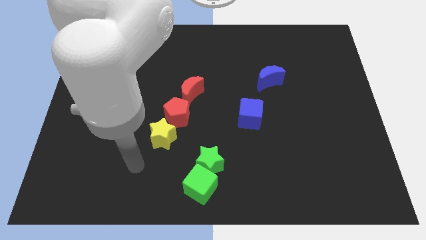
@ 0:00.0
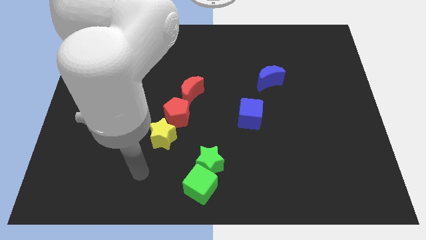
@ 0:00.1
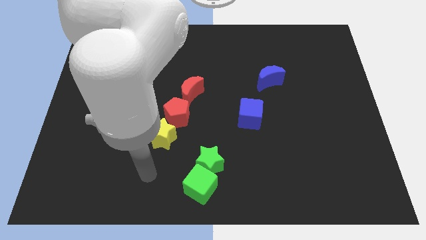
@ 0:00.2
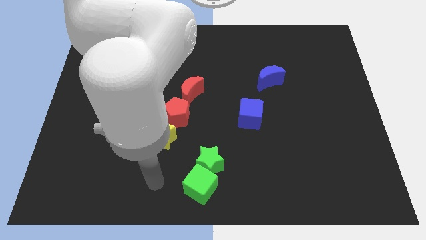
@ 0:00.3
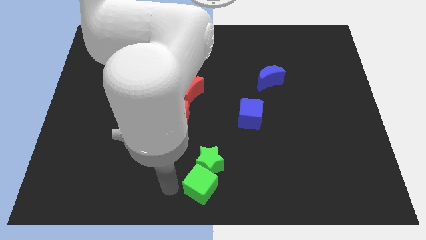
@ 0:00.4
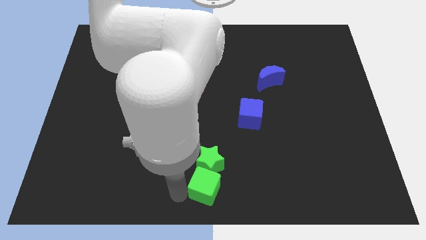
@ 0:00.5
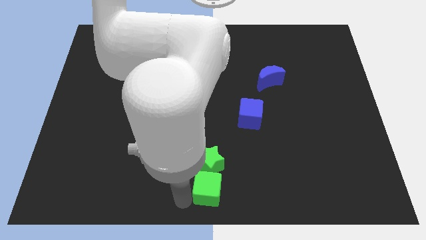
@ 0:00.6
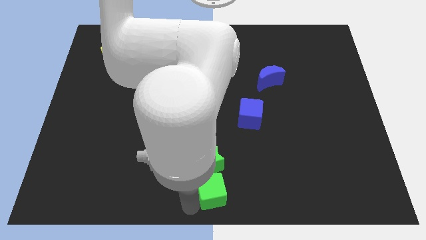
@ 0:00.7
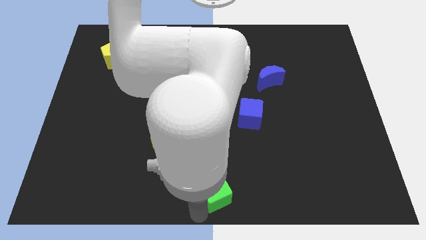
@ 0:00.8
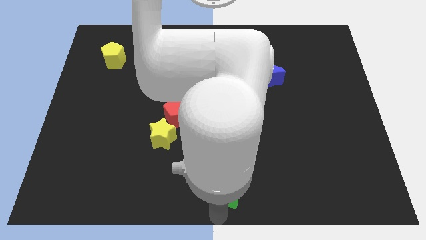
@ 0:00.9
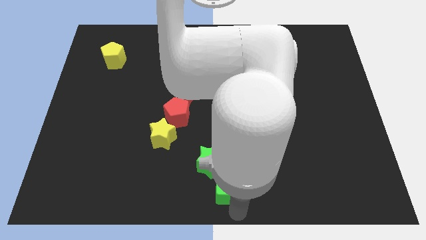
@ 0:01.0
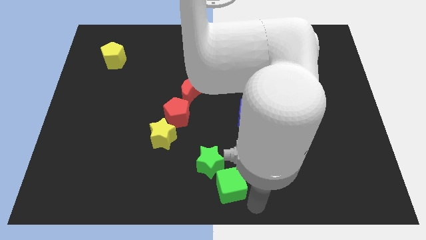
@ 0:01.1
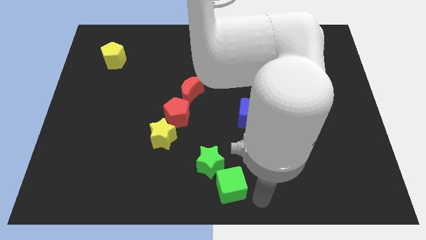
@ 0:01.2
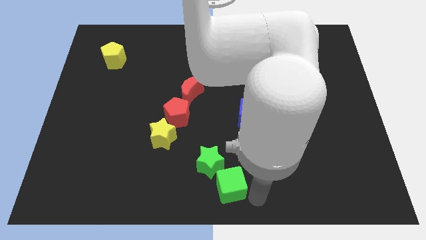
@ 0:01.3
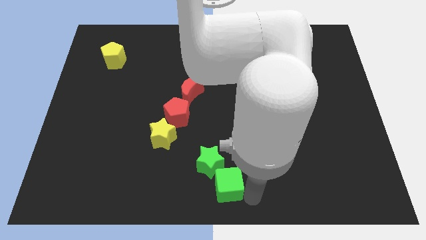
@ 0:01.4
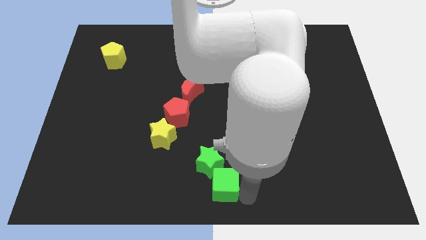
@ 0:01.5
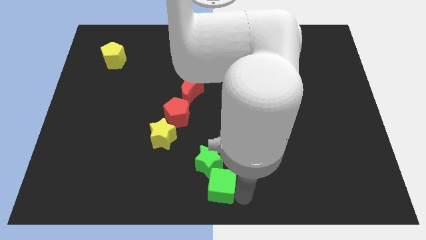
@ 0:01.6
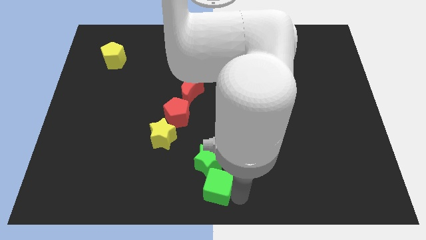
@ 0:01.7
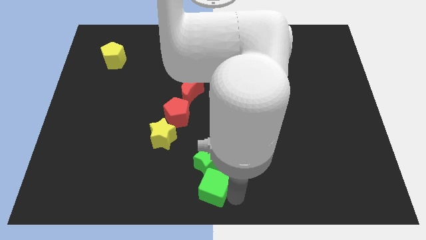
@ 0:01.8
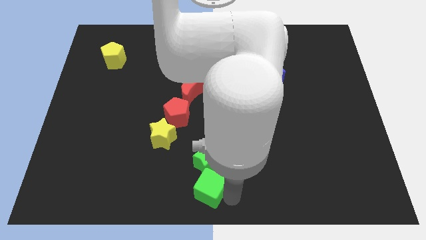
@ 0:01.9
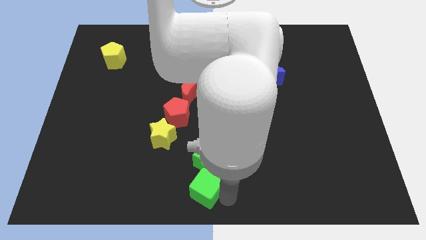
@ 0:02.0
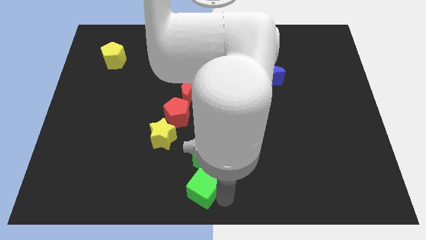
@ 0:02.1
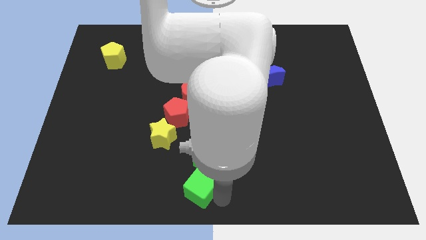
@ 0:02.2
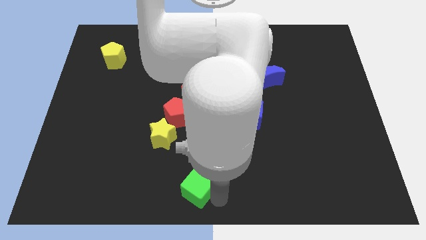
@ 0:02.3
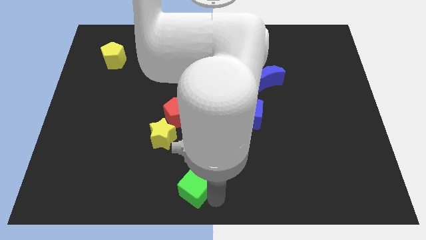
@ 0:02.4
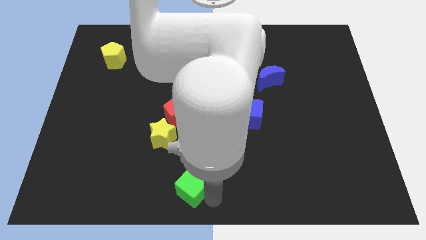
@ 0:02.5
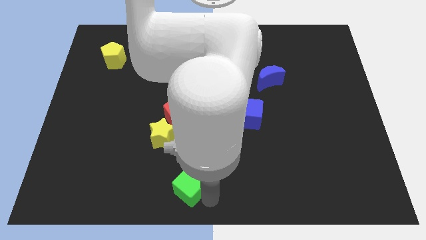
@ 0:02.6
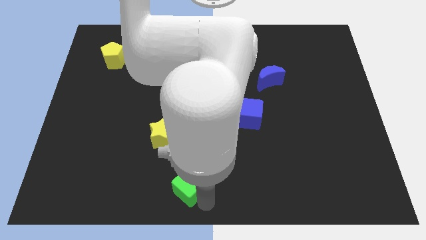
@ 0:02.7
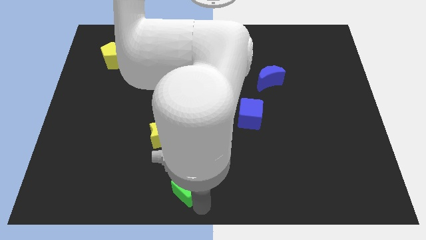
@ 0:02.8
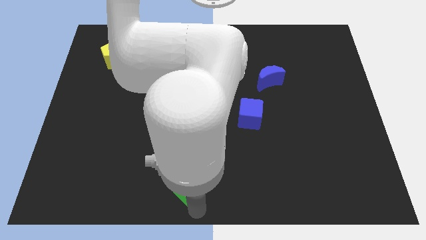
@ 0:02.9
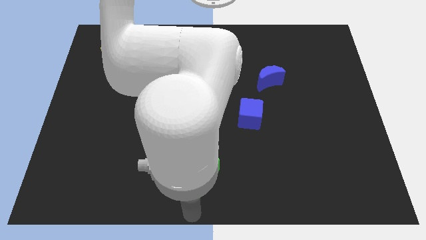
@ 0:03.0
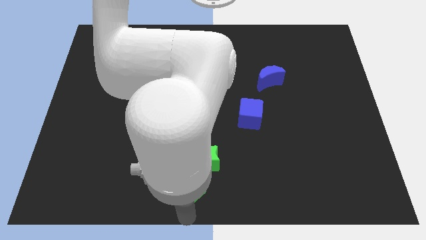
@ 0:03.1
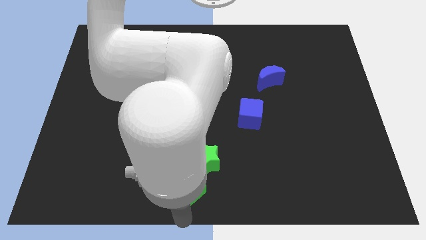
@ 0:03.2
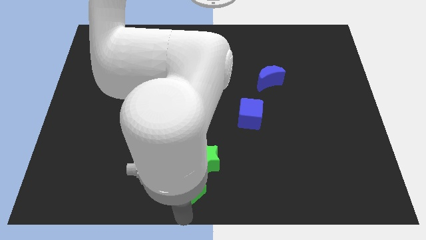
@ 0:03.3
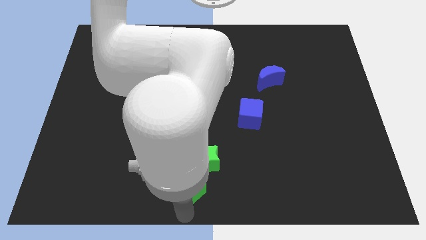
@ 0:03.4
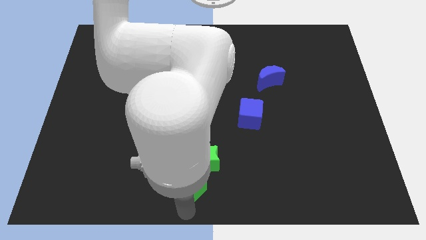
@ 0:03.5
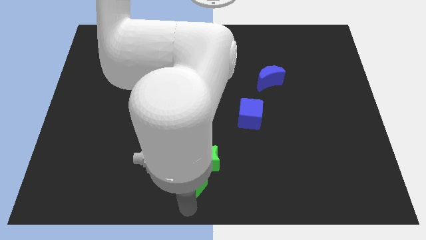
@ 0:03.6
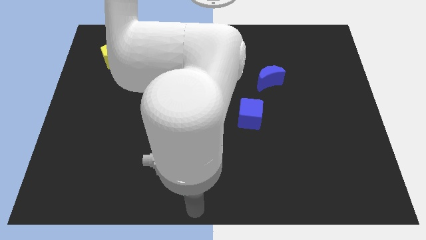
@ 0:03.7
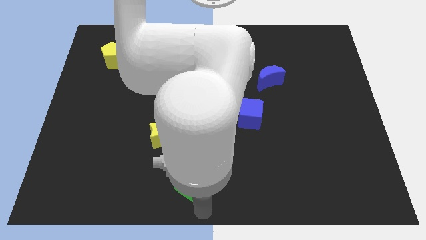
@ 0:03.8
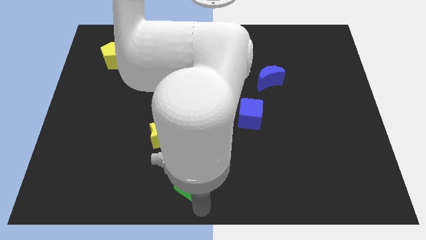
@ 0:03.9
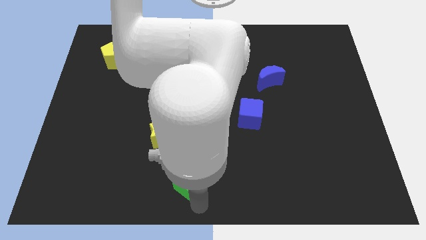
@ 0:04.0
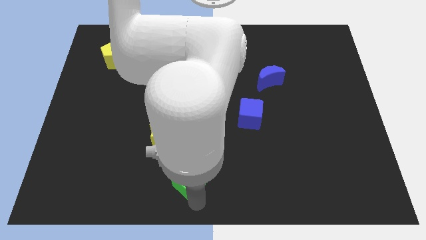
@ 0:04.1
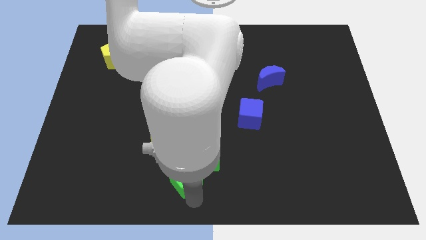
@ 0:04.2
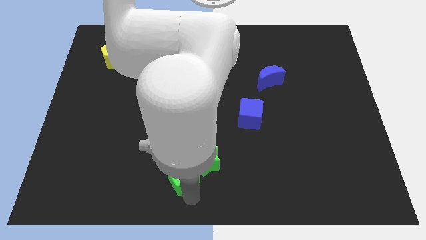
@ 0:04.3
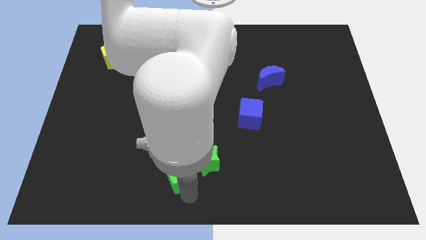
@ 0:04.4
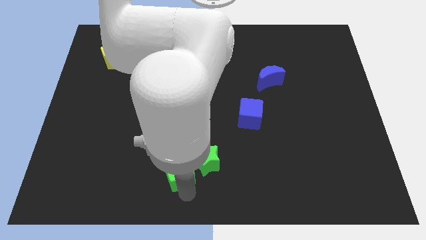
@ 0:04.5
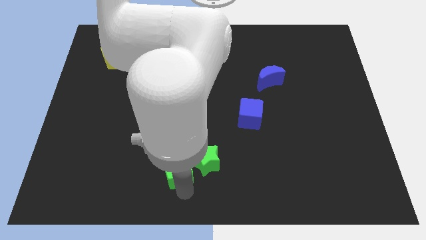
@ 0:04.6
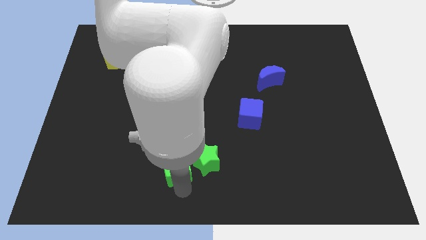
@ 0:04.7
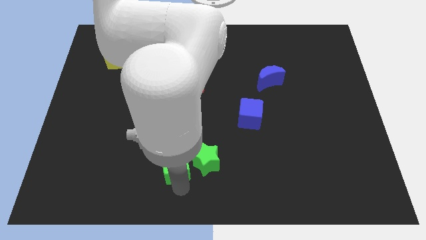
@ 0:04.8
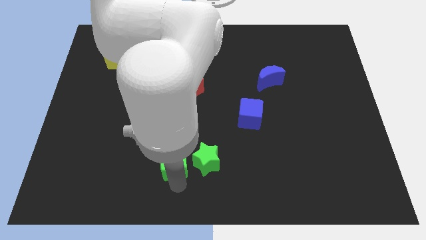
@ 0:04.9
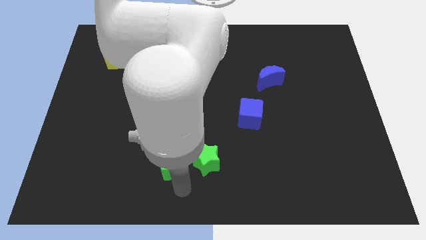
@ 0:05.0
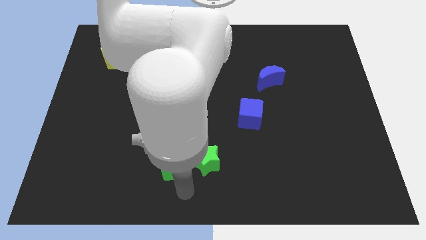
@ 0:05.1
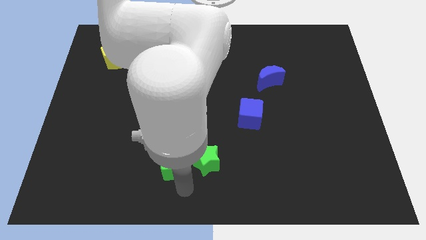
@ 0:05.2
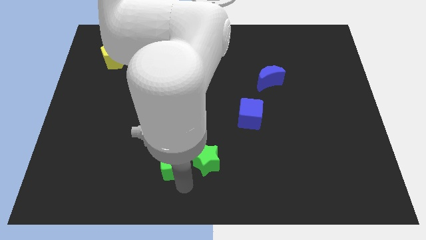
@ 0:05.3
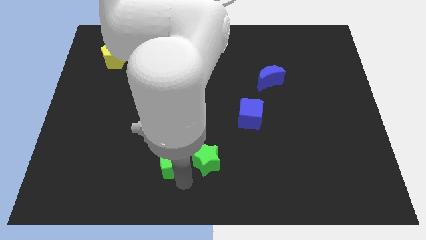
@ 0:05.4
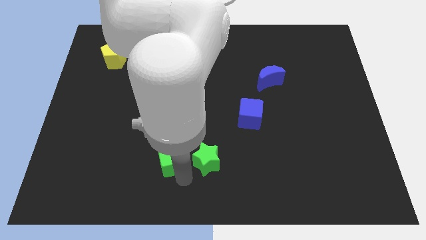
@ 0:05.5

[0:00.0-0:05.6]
put the green cube to the yellow star

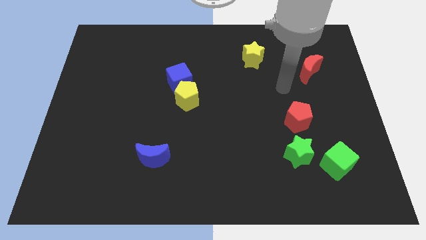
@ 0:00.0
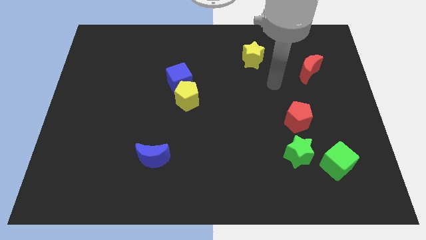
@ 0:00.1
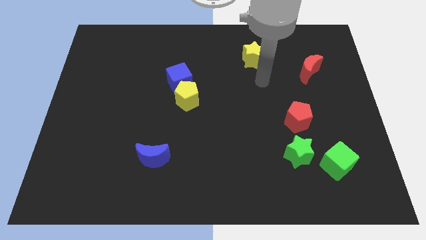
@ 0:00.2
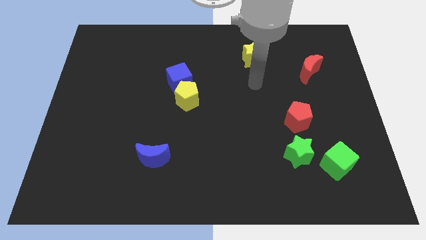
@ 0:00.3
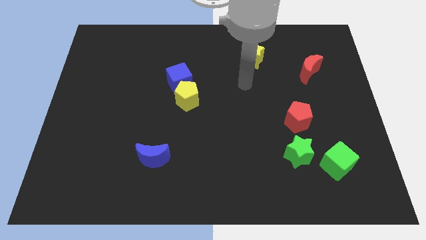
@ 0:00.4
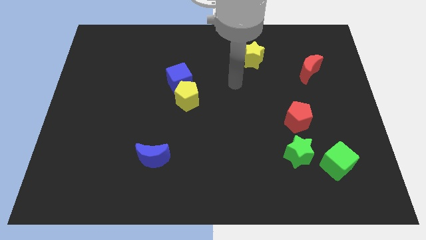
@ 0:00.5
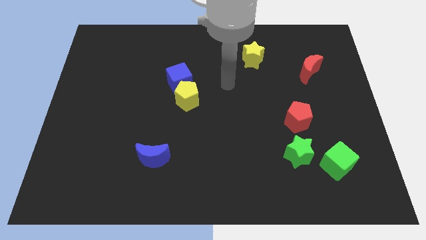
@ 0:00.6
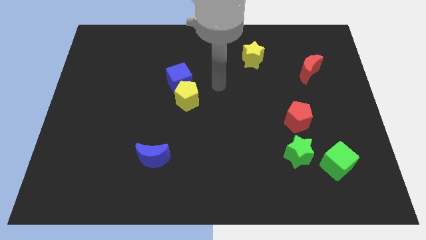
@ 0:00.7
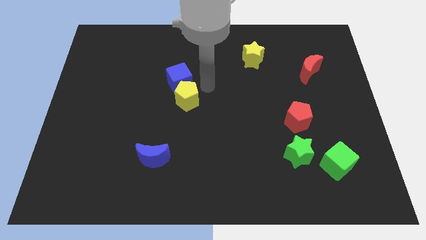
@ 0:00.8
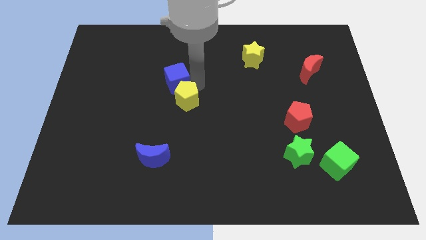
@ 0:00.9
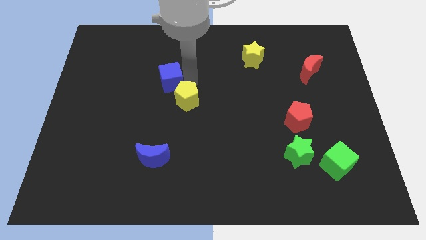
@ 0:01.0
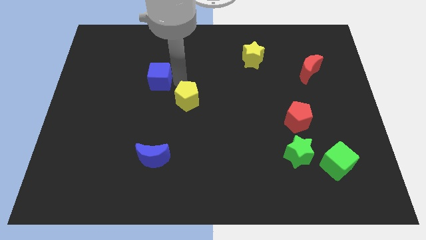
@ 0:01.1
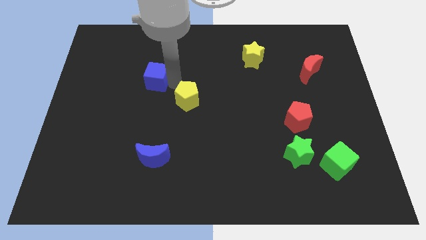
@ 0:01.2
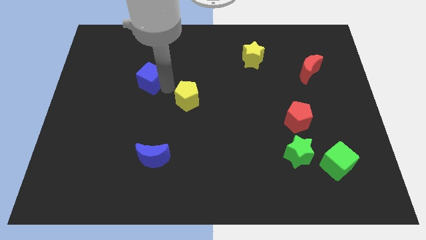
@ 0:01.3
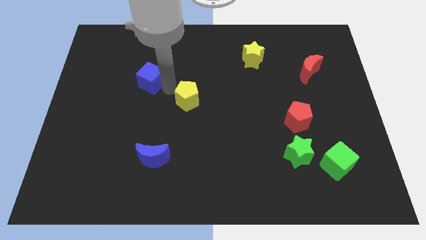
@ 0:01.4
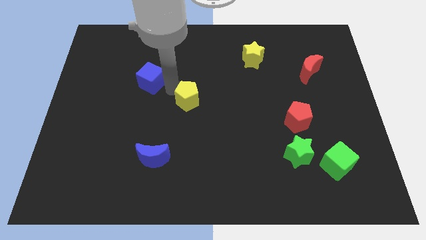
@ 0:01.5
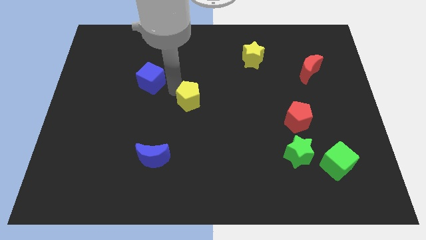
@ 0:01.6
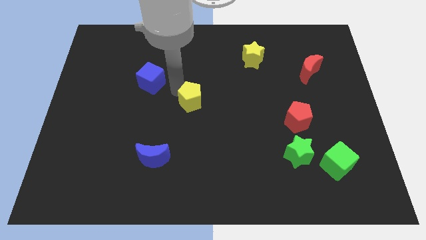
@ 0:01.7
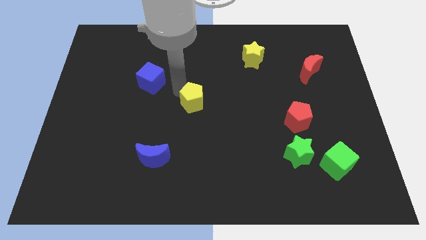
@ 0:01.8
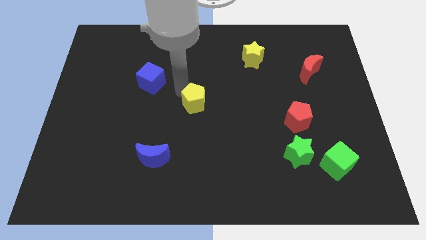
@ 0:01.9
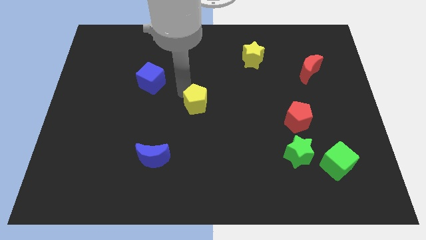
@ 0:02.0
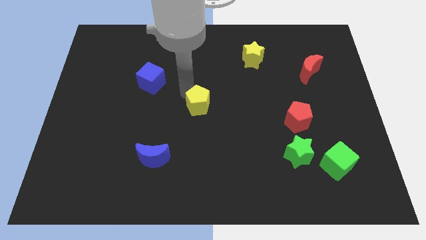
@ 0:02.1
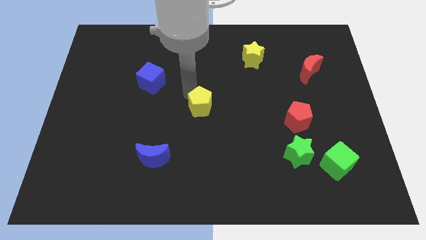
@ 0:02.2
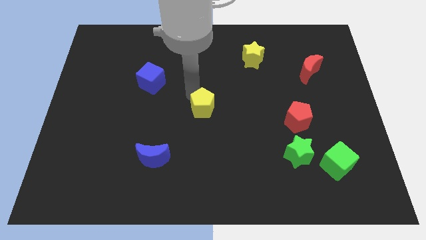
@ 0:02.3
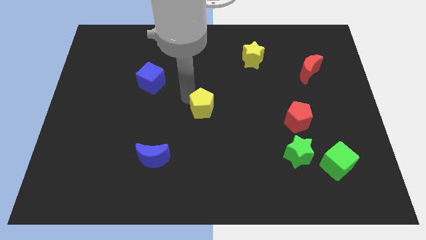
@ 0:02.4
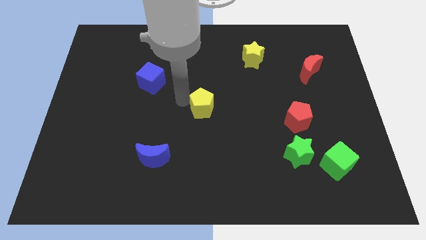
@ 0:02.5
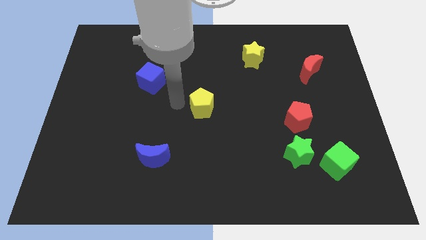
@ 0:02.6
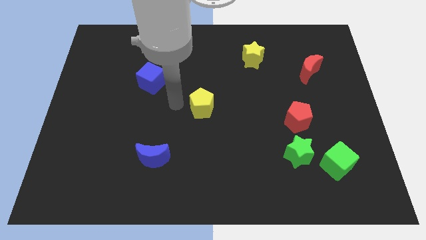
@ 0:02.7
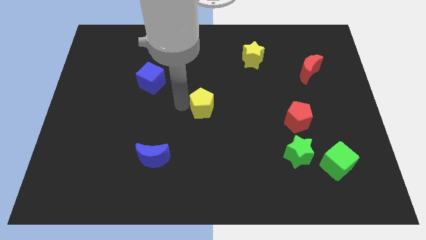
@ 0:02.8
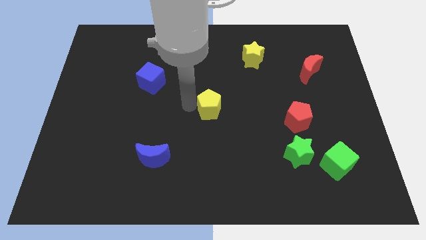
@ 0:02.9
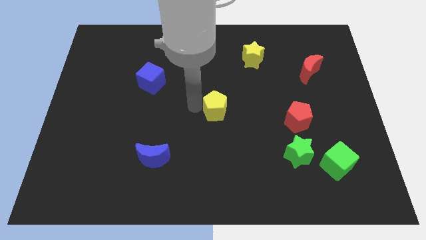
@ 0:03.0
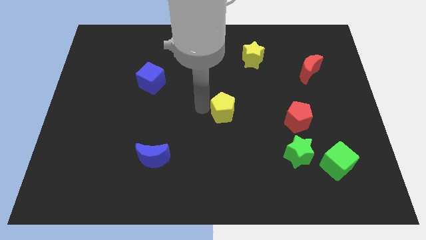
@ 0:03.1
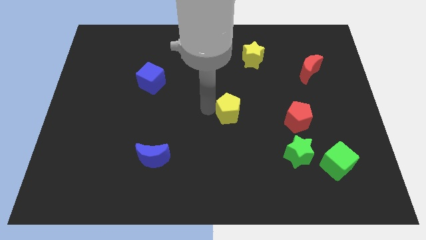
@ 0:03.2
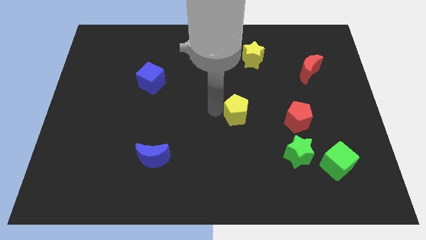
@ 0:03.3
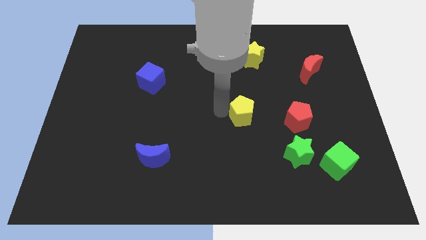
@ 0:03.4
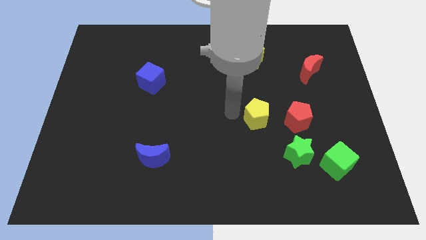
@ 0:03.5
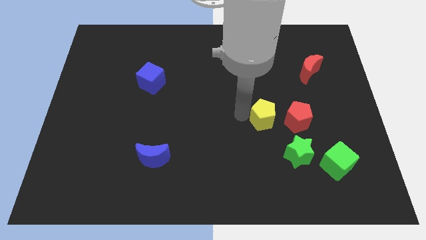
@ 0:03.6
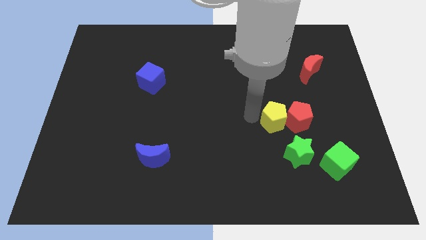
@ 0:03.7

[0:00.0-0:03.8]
put the yellow pentagon to the red pentagon
